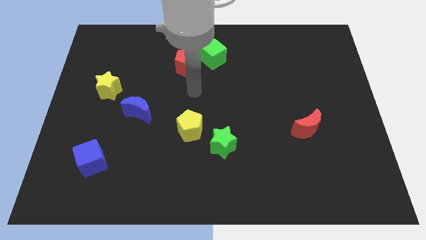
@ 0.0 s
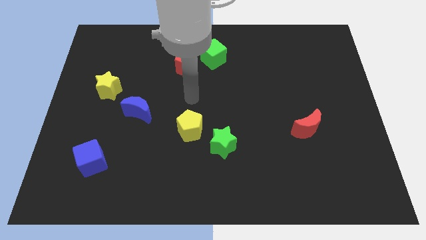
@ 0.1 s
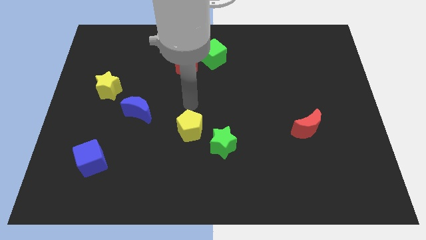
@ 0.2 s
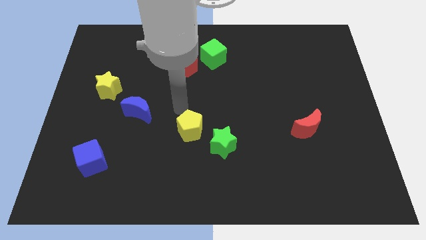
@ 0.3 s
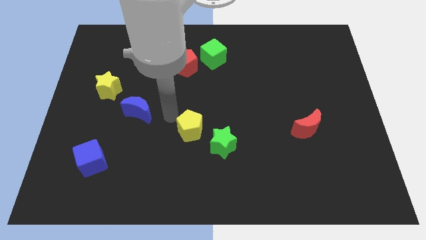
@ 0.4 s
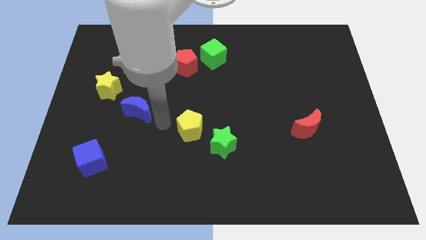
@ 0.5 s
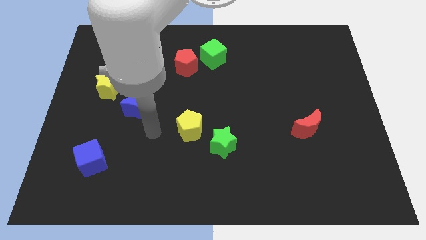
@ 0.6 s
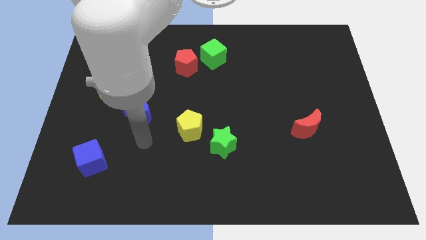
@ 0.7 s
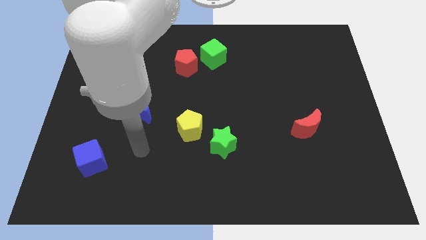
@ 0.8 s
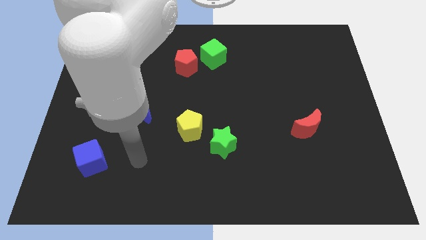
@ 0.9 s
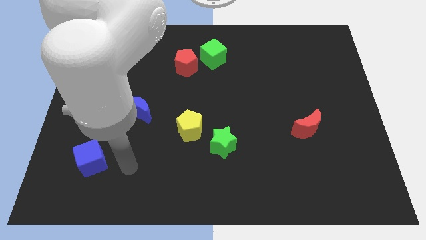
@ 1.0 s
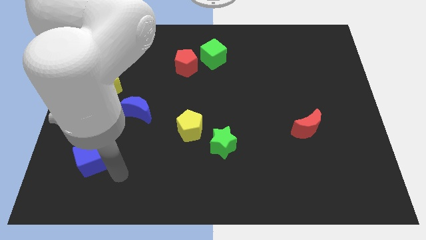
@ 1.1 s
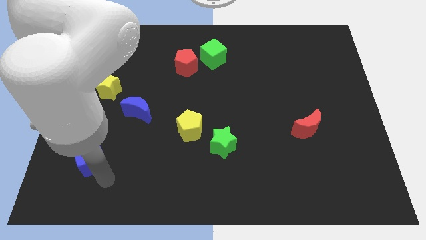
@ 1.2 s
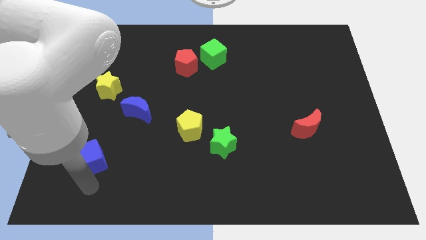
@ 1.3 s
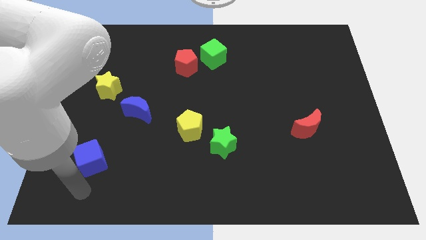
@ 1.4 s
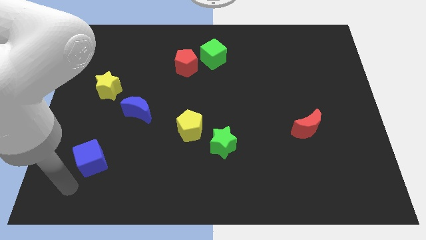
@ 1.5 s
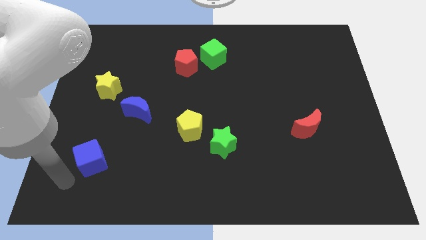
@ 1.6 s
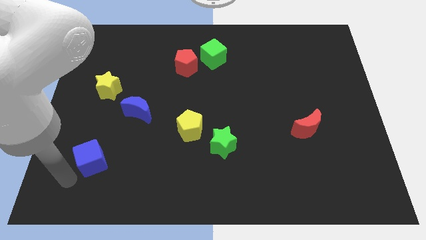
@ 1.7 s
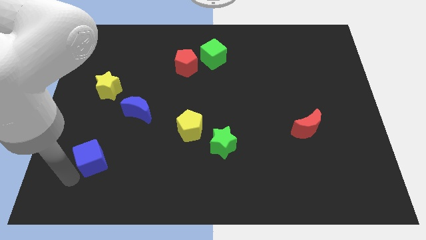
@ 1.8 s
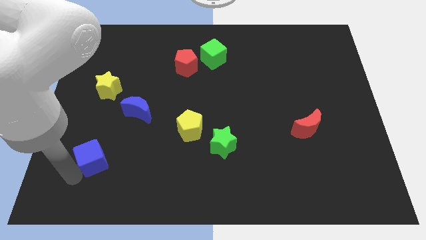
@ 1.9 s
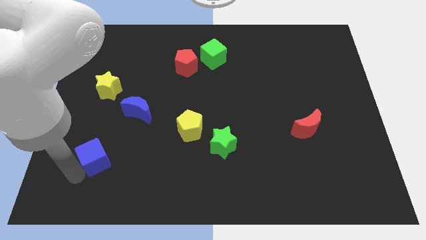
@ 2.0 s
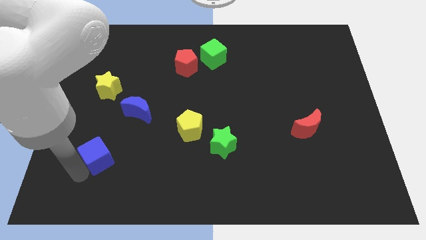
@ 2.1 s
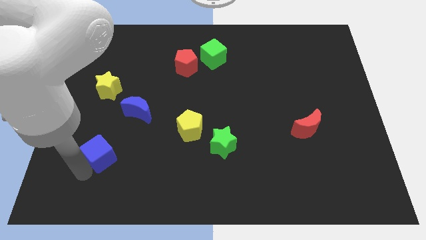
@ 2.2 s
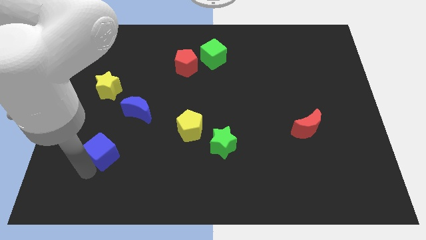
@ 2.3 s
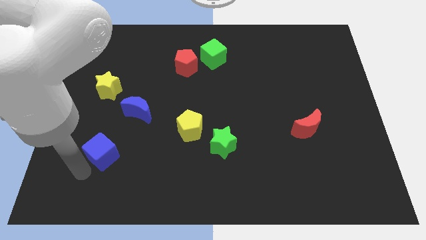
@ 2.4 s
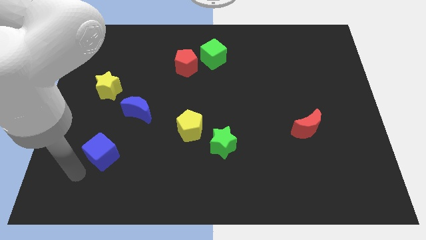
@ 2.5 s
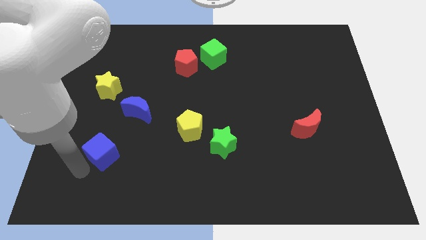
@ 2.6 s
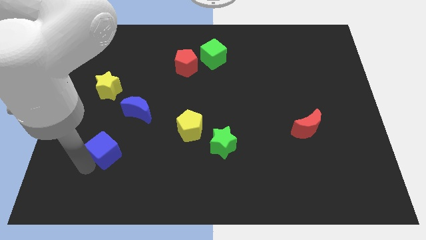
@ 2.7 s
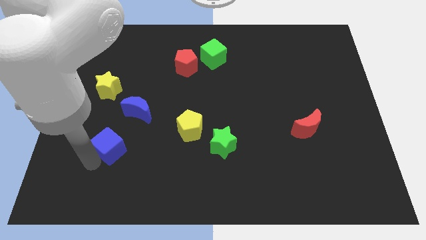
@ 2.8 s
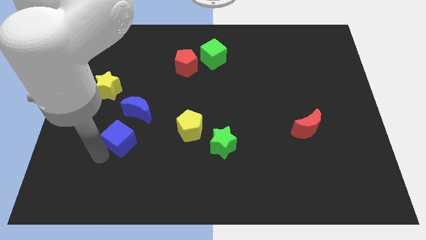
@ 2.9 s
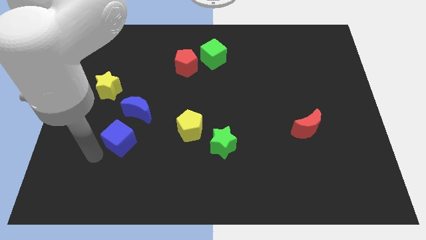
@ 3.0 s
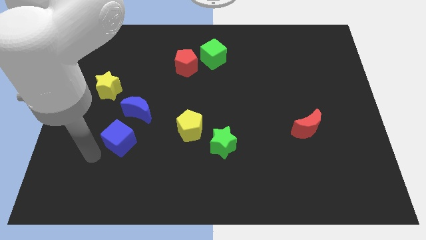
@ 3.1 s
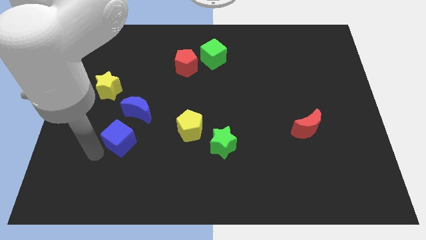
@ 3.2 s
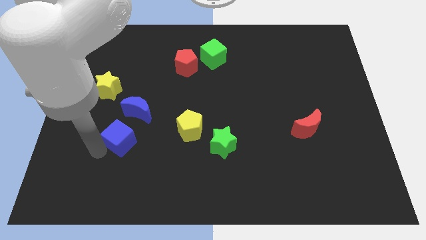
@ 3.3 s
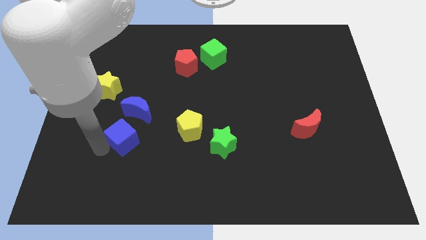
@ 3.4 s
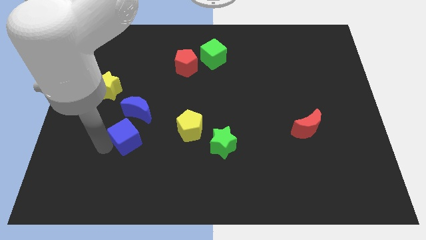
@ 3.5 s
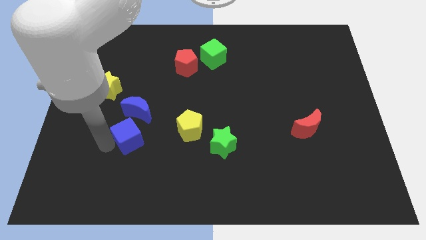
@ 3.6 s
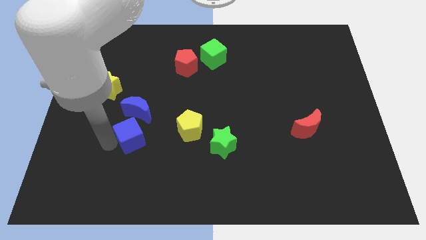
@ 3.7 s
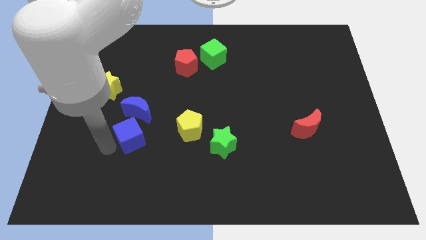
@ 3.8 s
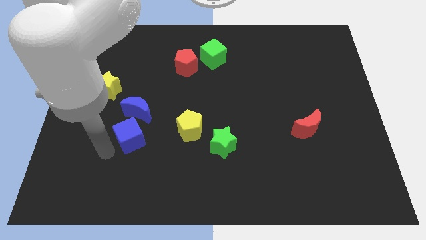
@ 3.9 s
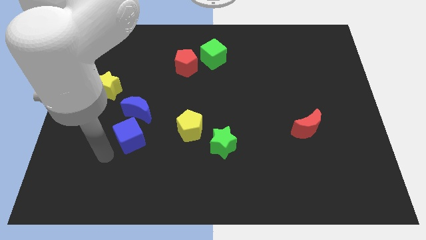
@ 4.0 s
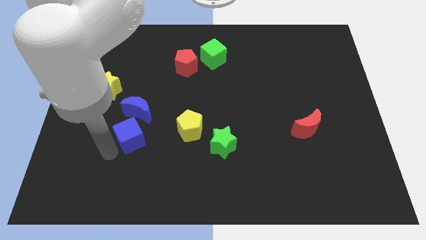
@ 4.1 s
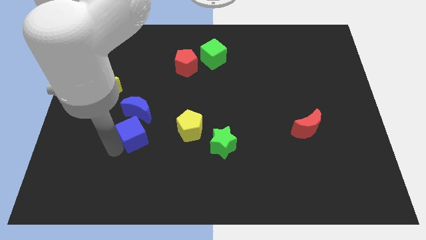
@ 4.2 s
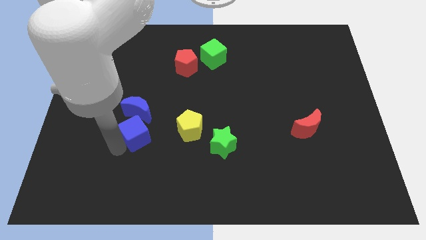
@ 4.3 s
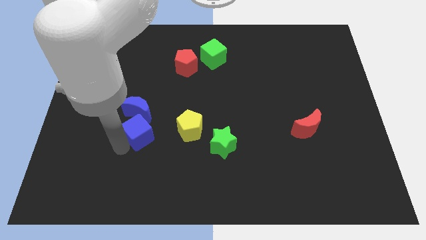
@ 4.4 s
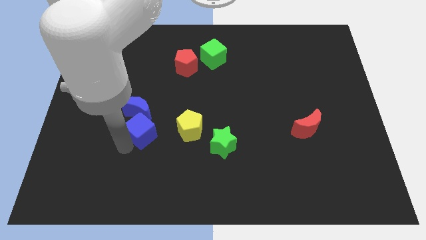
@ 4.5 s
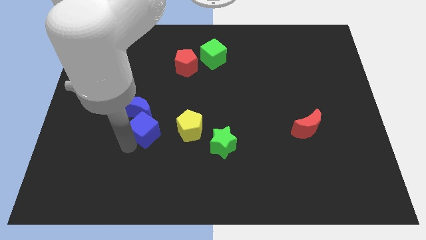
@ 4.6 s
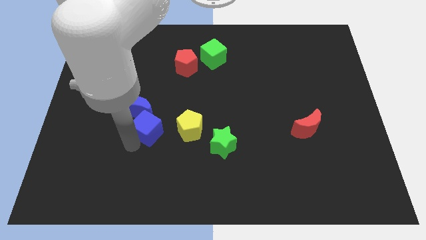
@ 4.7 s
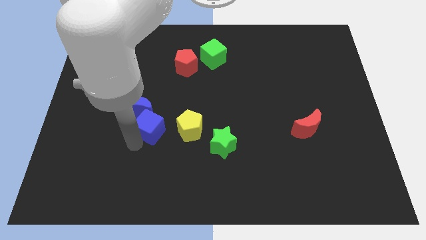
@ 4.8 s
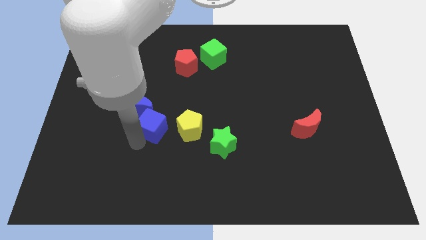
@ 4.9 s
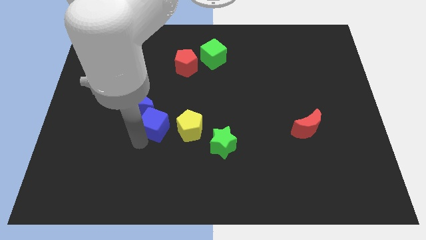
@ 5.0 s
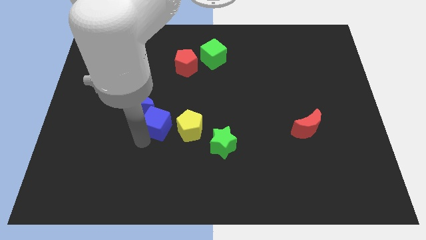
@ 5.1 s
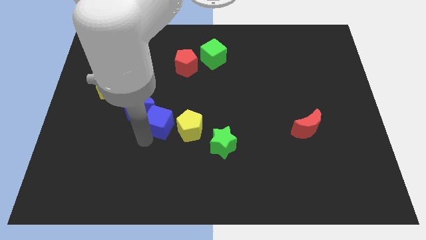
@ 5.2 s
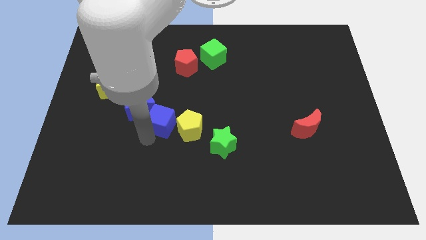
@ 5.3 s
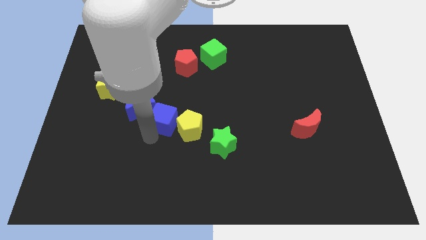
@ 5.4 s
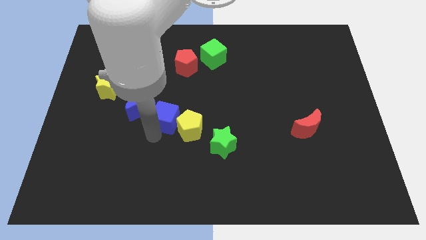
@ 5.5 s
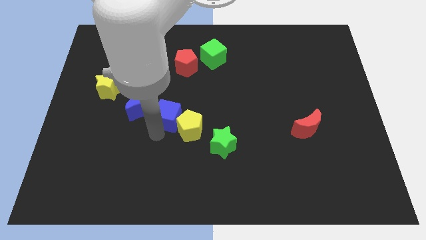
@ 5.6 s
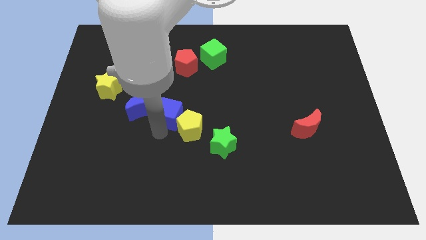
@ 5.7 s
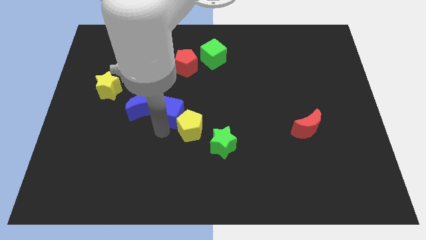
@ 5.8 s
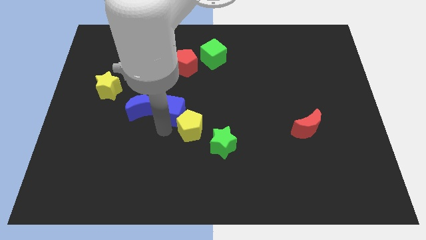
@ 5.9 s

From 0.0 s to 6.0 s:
push the blue cube upwards and right diagonally

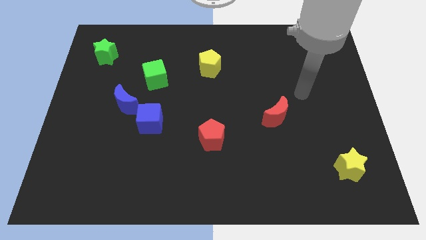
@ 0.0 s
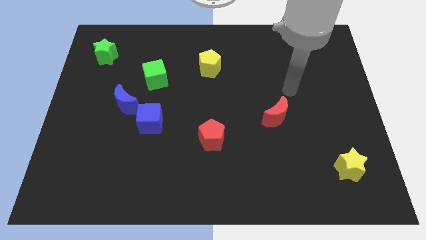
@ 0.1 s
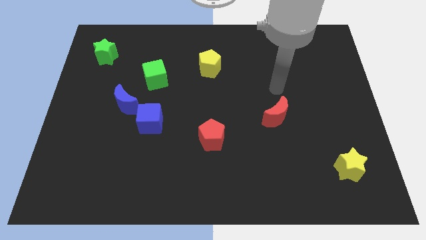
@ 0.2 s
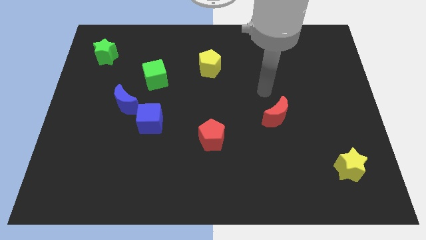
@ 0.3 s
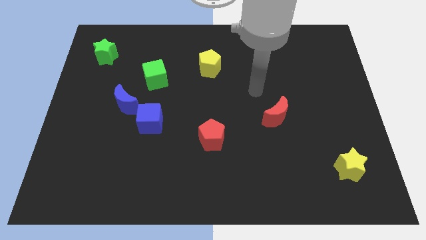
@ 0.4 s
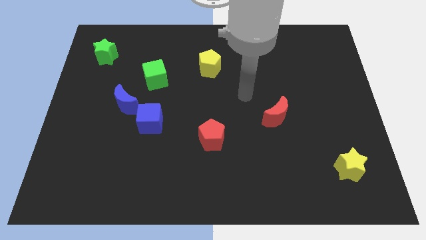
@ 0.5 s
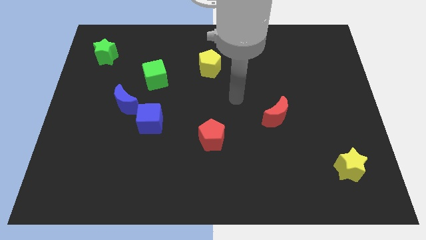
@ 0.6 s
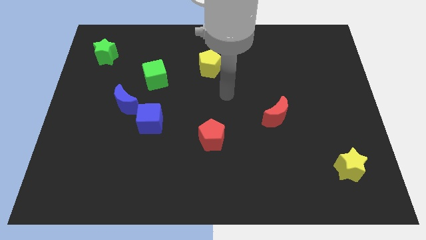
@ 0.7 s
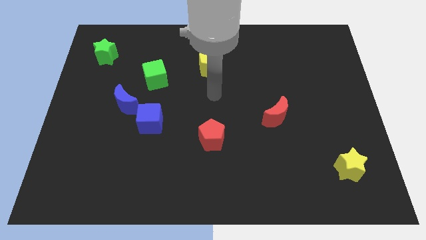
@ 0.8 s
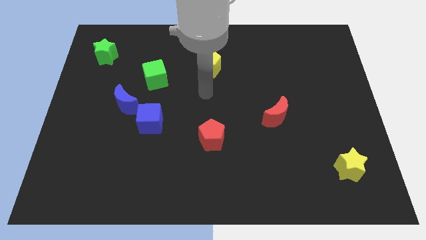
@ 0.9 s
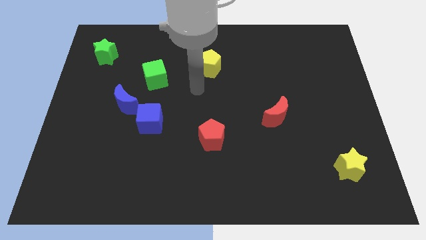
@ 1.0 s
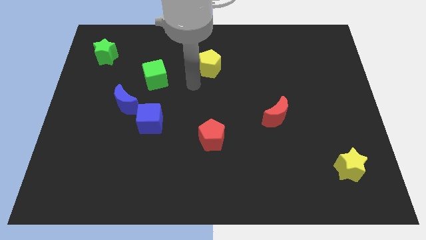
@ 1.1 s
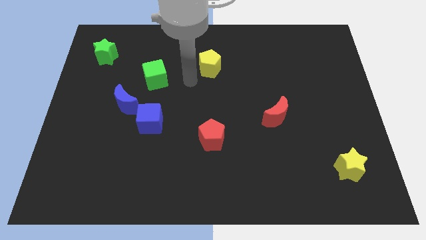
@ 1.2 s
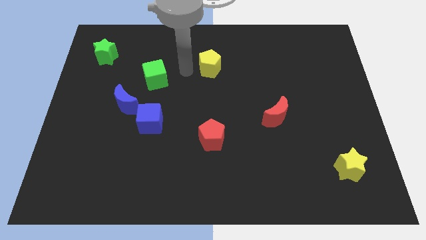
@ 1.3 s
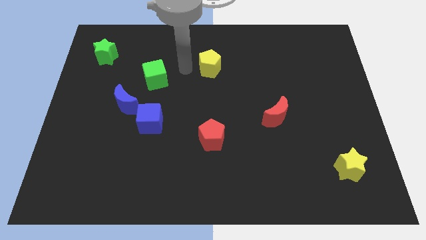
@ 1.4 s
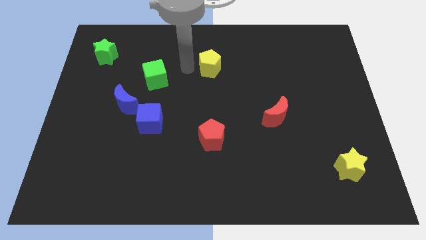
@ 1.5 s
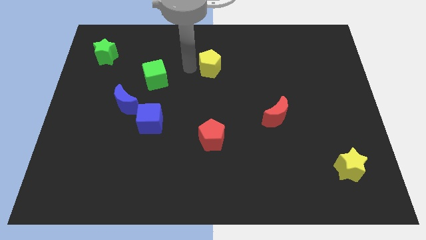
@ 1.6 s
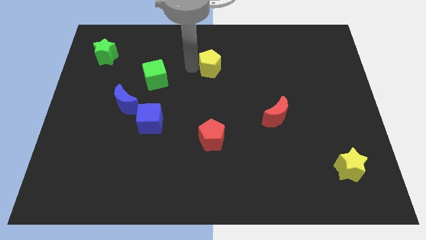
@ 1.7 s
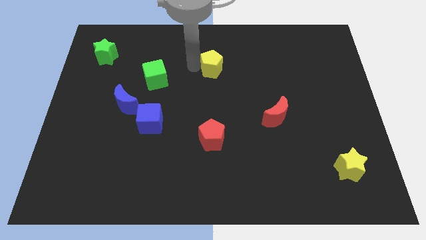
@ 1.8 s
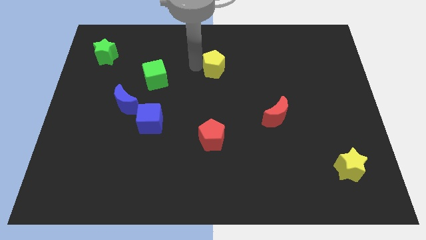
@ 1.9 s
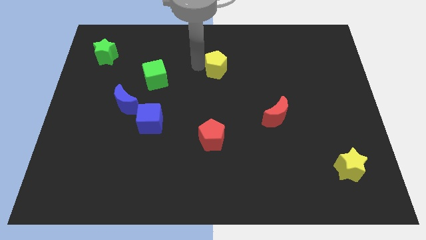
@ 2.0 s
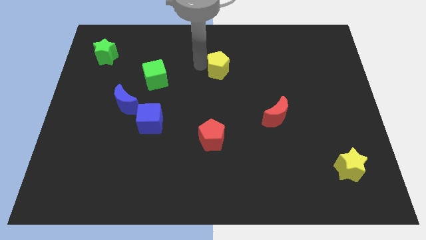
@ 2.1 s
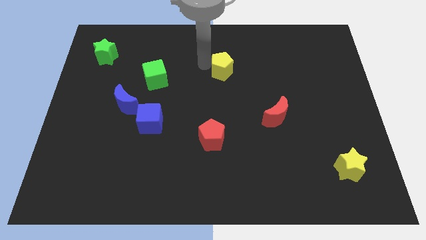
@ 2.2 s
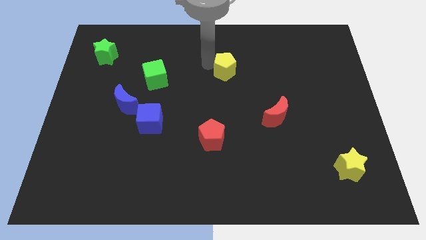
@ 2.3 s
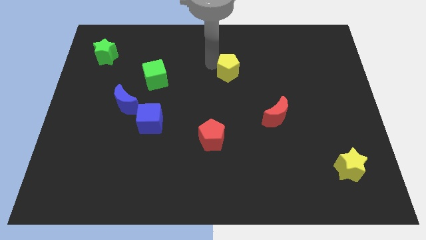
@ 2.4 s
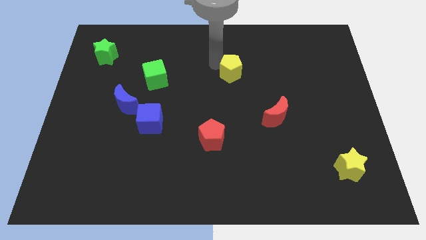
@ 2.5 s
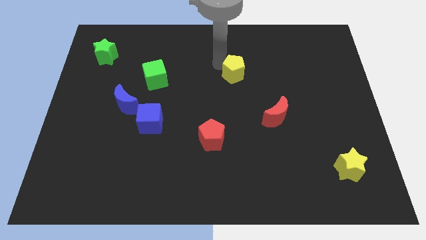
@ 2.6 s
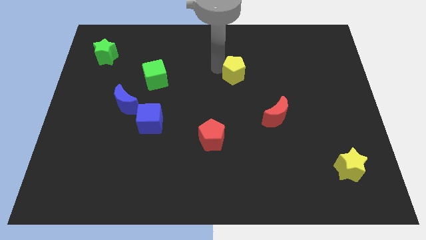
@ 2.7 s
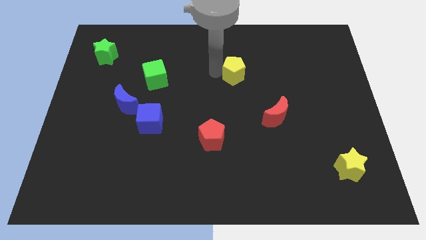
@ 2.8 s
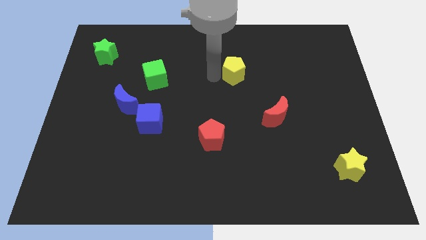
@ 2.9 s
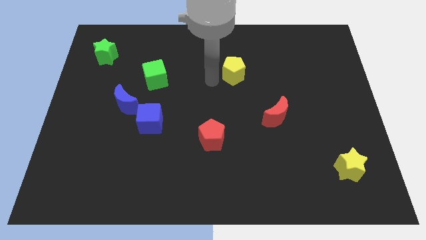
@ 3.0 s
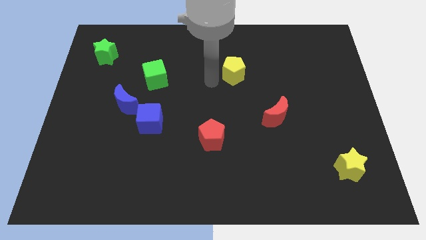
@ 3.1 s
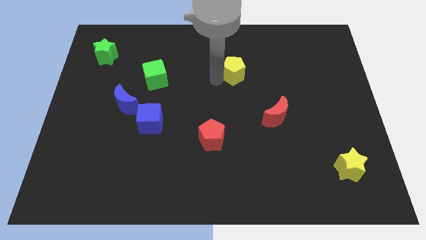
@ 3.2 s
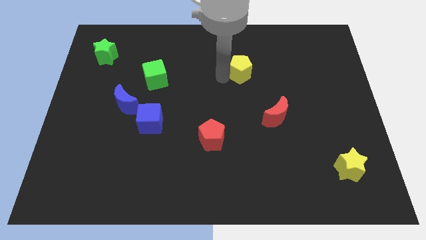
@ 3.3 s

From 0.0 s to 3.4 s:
move the yellow pentagon to the right a little
